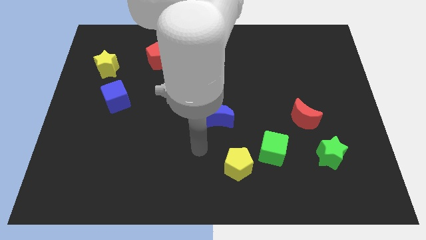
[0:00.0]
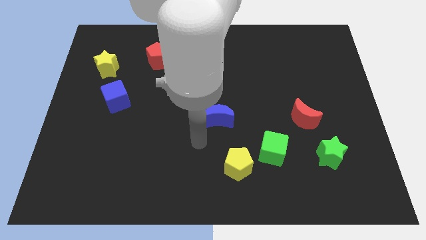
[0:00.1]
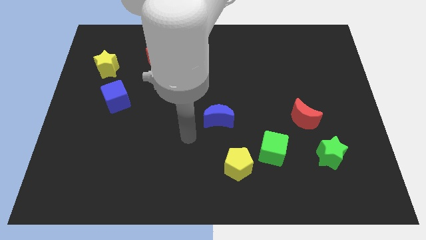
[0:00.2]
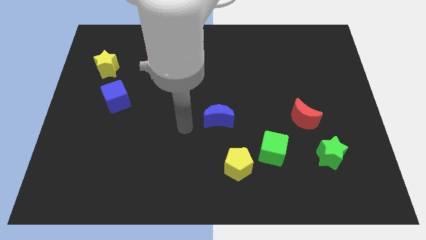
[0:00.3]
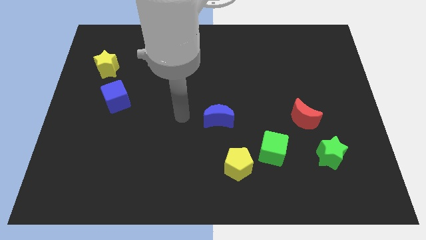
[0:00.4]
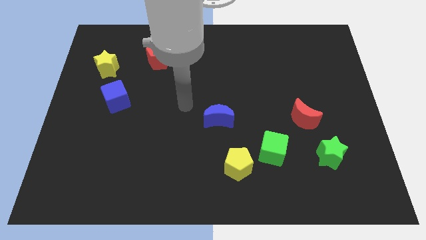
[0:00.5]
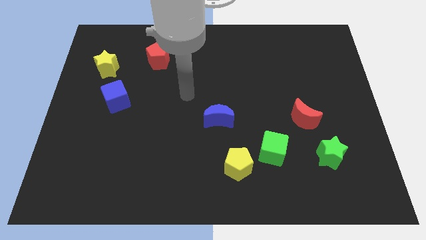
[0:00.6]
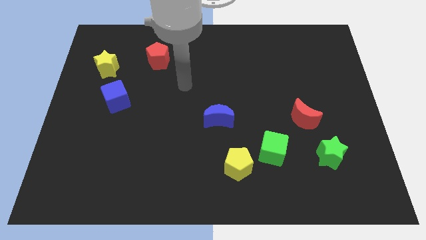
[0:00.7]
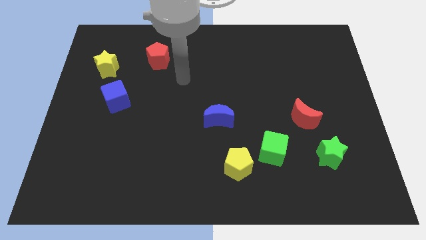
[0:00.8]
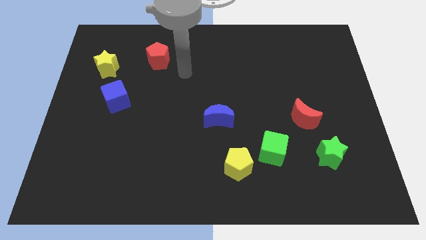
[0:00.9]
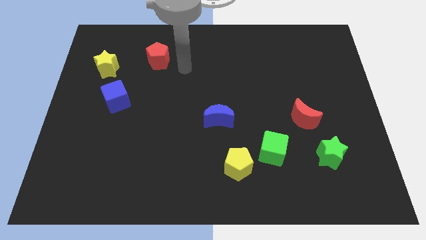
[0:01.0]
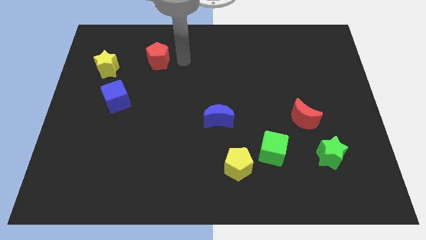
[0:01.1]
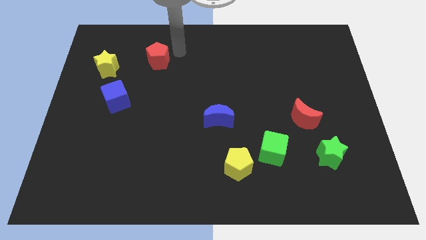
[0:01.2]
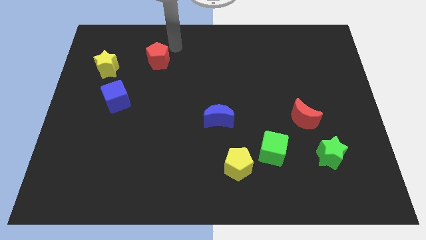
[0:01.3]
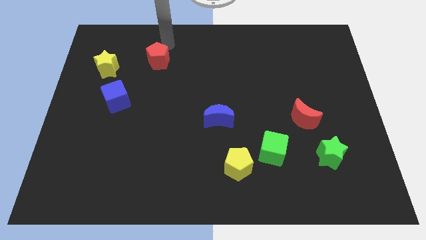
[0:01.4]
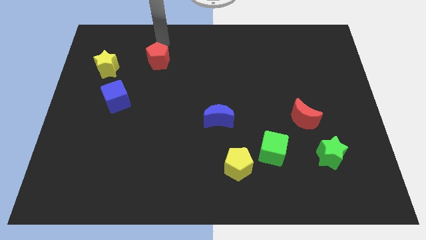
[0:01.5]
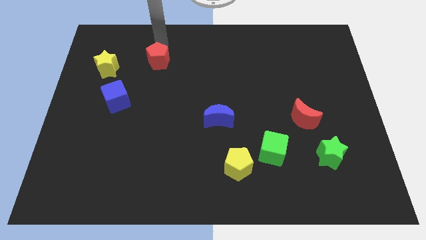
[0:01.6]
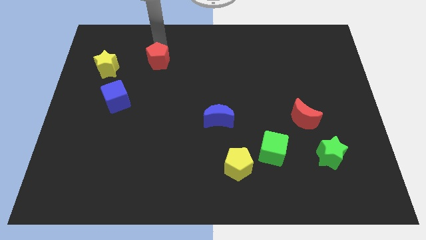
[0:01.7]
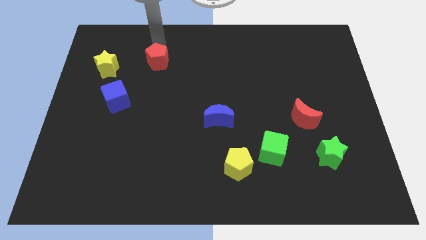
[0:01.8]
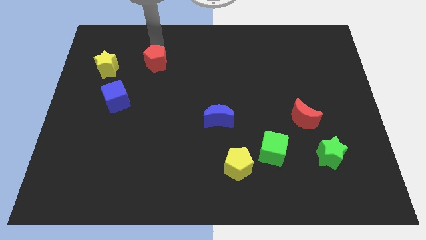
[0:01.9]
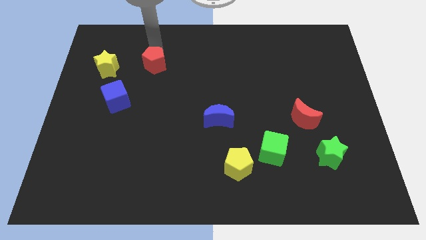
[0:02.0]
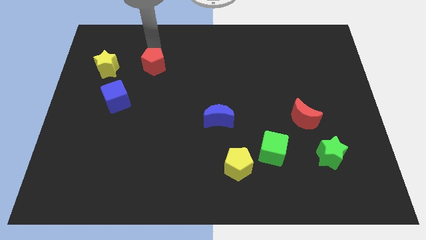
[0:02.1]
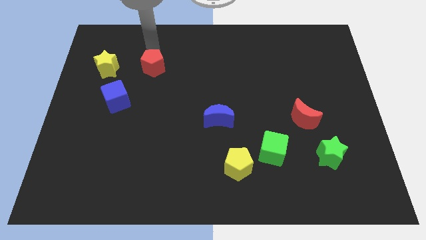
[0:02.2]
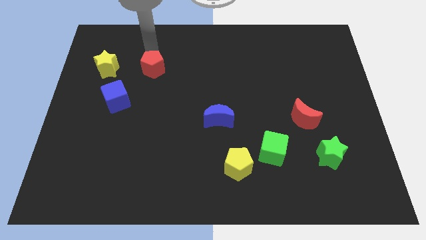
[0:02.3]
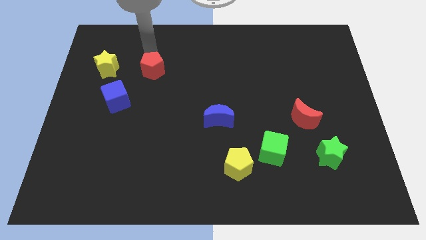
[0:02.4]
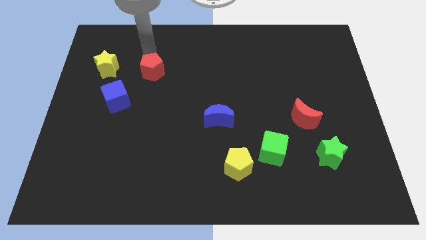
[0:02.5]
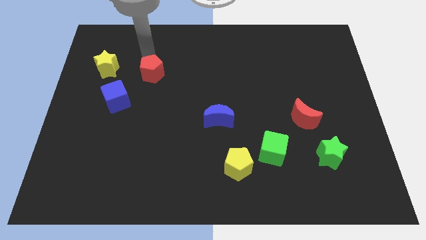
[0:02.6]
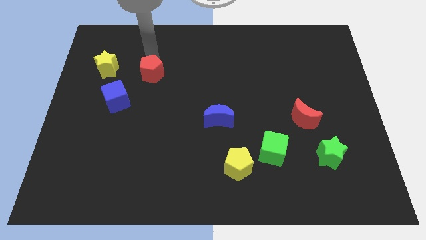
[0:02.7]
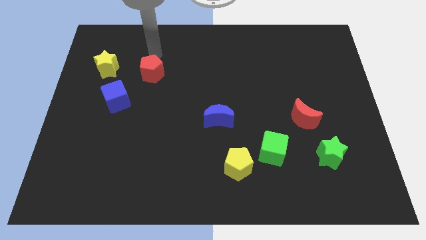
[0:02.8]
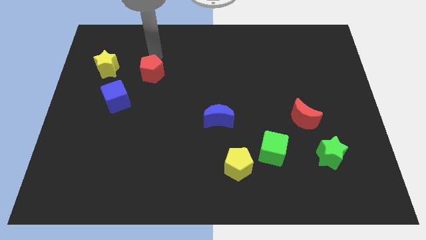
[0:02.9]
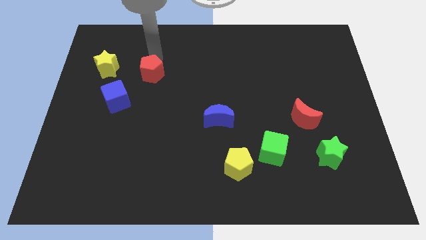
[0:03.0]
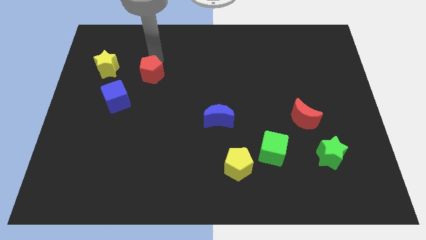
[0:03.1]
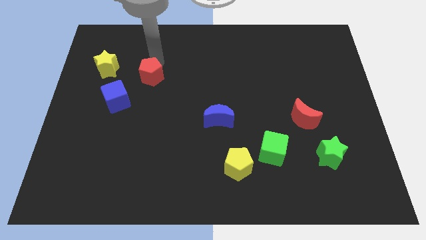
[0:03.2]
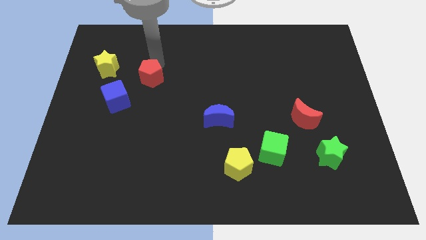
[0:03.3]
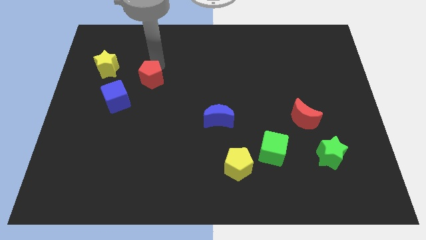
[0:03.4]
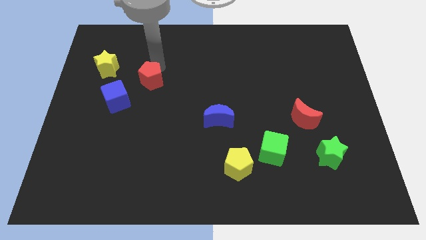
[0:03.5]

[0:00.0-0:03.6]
slightly slide the red pentagon down

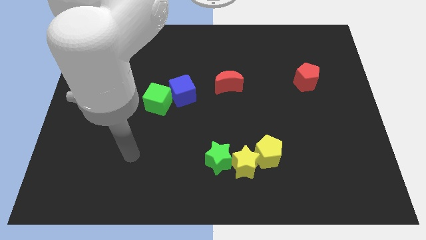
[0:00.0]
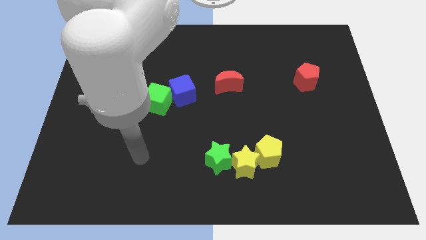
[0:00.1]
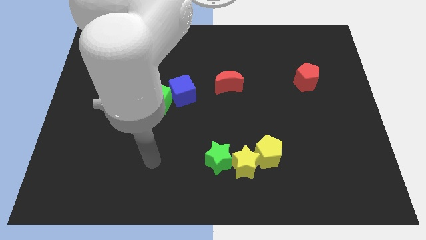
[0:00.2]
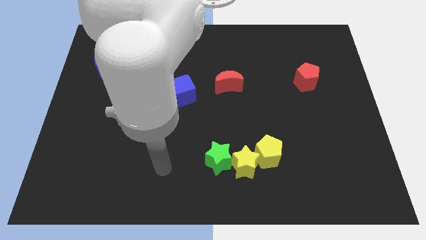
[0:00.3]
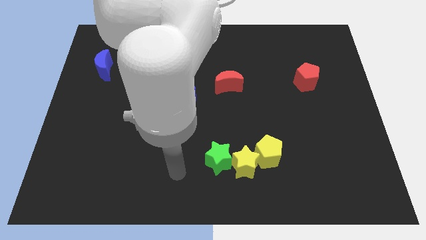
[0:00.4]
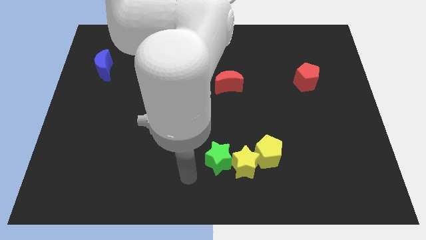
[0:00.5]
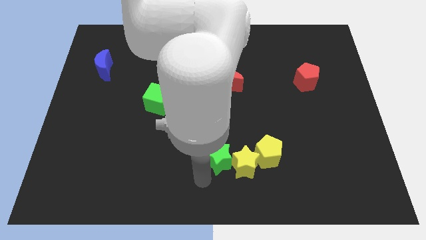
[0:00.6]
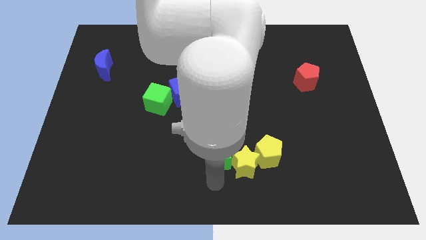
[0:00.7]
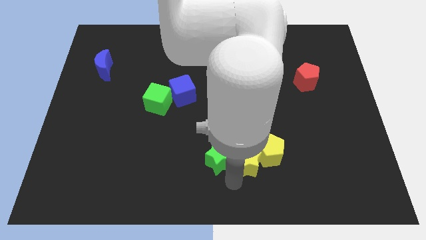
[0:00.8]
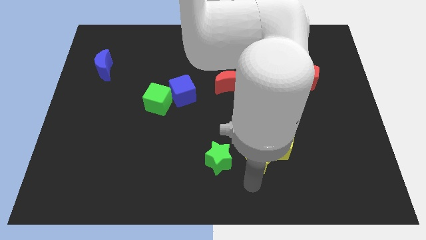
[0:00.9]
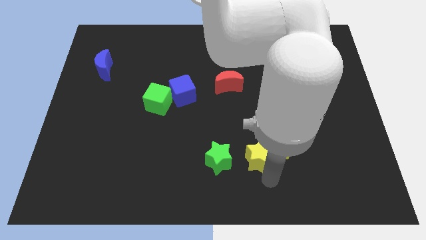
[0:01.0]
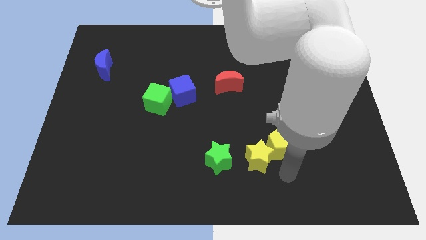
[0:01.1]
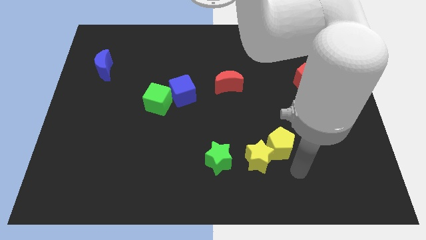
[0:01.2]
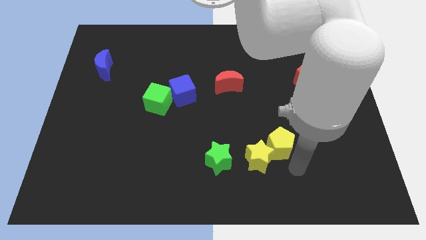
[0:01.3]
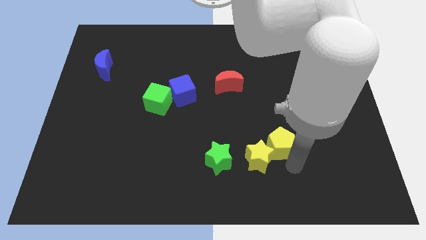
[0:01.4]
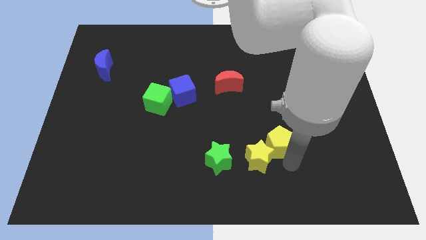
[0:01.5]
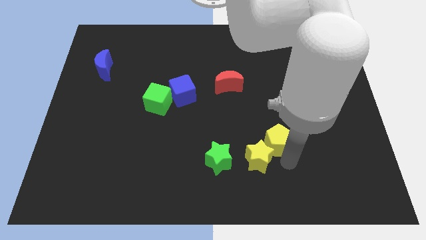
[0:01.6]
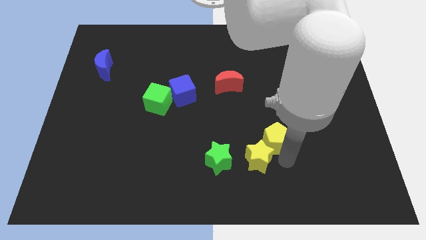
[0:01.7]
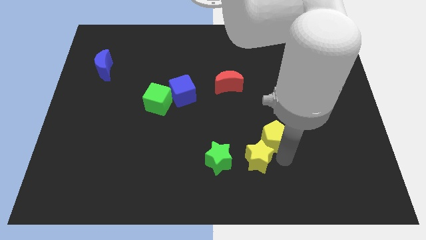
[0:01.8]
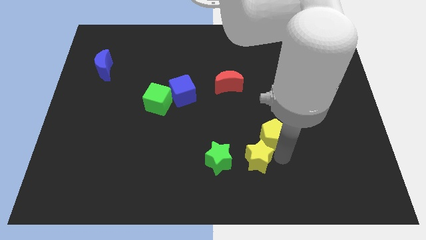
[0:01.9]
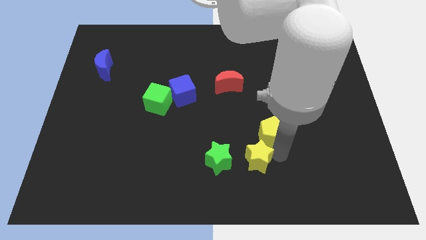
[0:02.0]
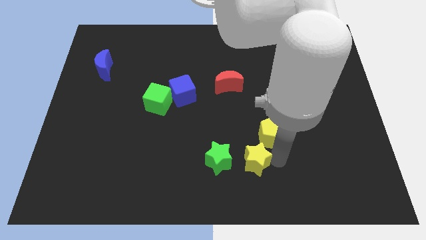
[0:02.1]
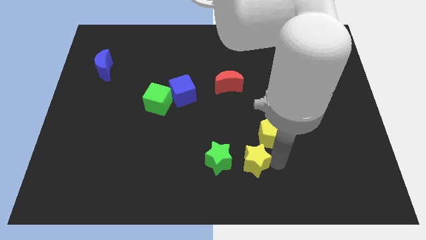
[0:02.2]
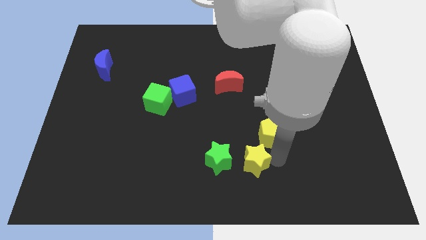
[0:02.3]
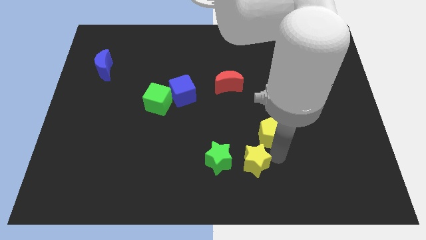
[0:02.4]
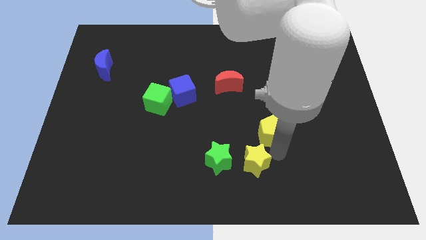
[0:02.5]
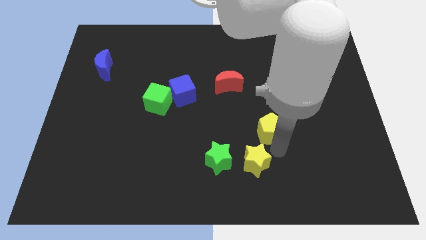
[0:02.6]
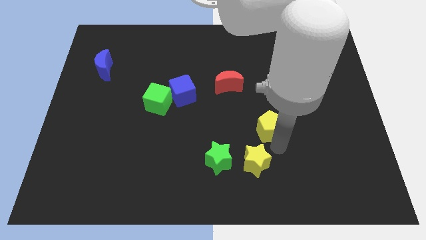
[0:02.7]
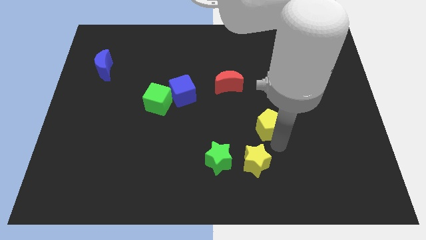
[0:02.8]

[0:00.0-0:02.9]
push the yellow pentagon a little up

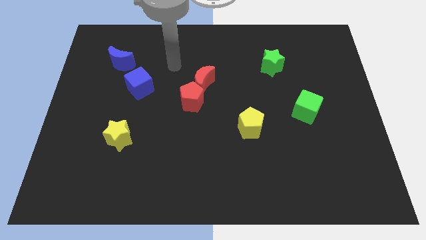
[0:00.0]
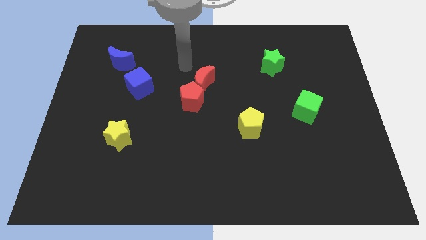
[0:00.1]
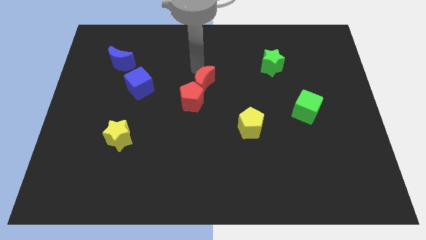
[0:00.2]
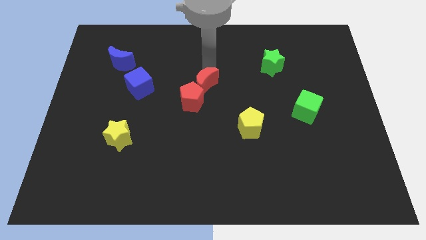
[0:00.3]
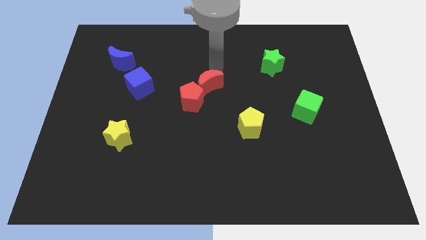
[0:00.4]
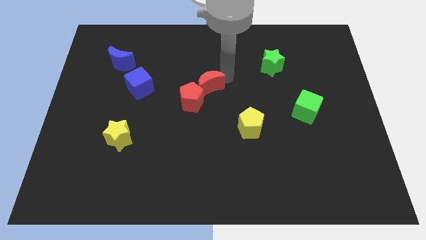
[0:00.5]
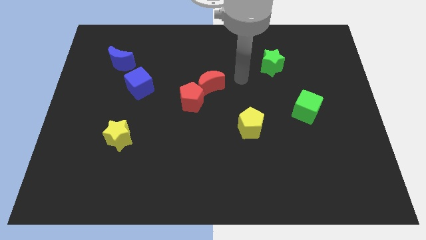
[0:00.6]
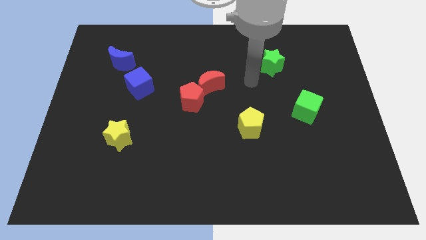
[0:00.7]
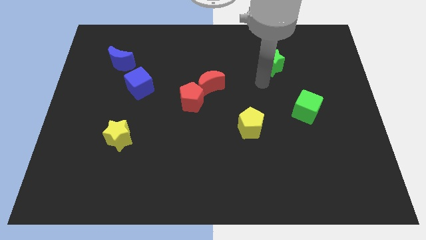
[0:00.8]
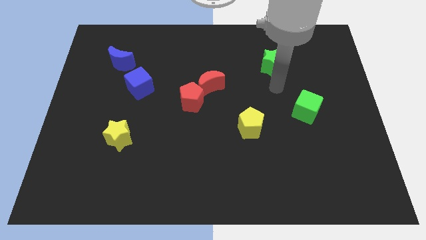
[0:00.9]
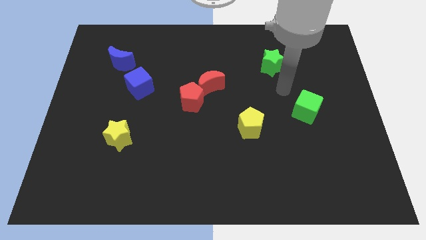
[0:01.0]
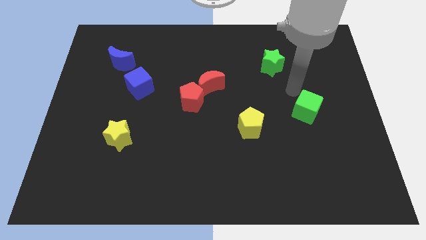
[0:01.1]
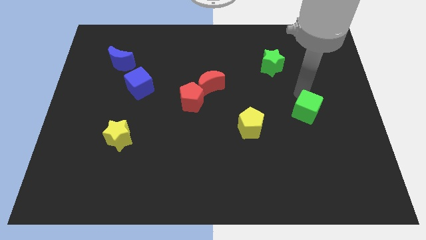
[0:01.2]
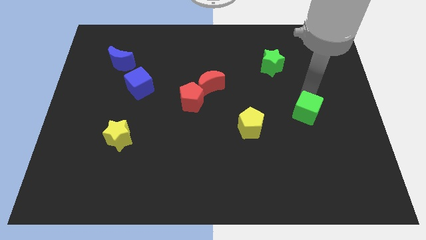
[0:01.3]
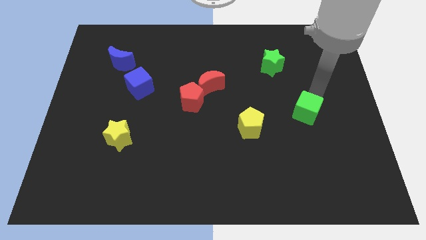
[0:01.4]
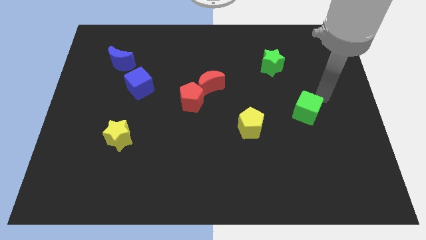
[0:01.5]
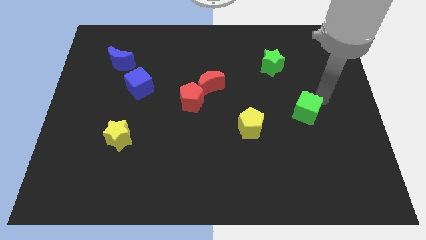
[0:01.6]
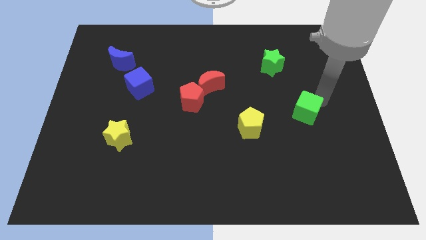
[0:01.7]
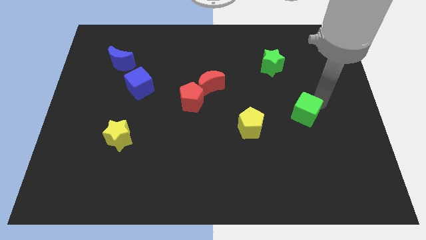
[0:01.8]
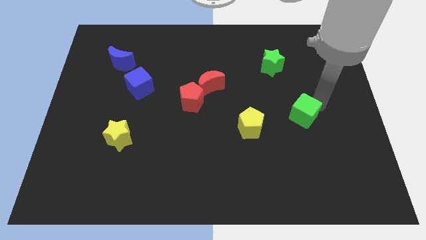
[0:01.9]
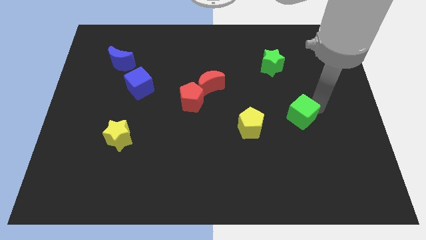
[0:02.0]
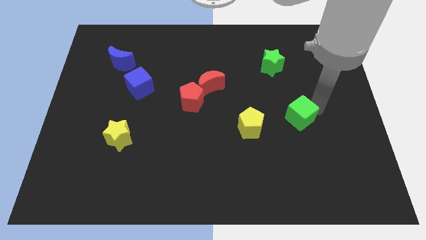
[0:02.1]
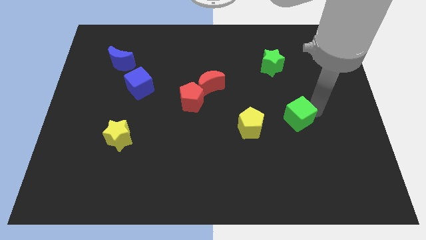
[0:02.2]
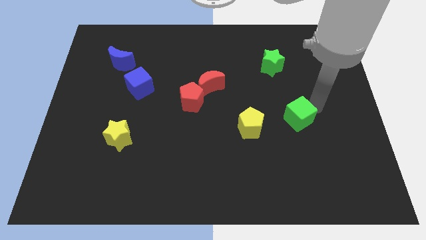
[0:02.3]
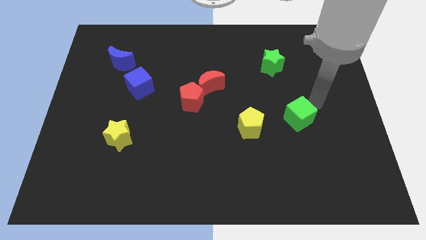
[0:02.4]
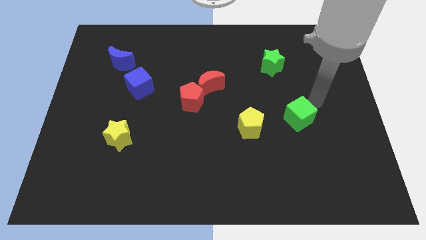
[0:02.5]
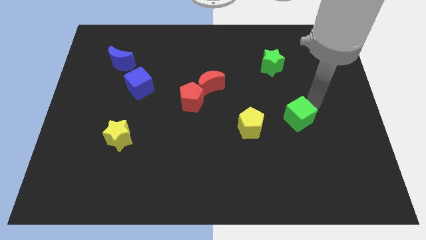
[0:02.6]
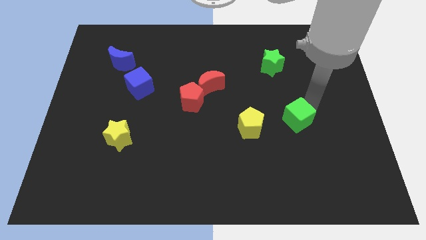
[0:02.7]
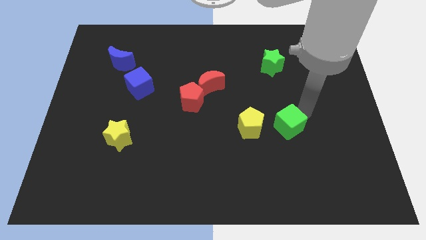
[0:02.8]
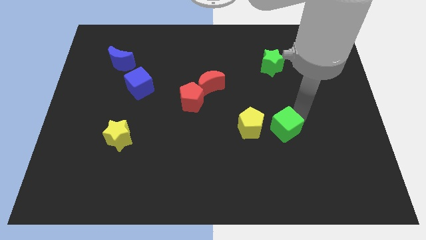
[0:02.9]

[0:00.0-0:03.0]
slide the green cube slightly downwards and left
